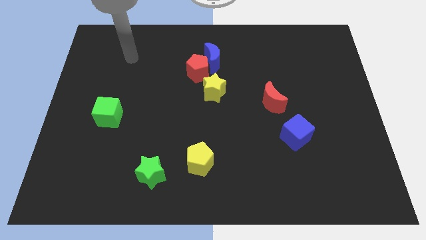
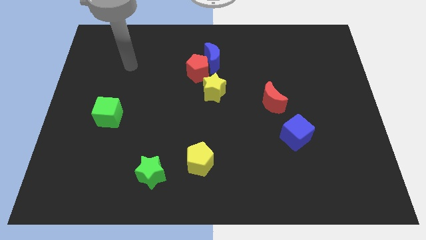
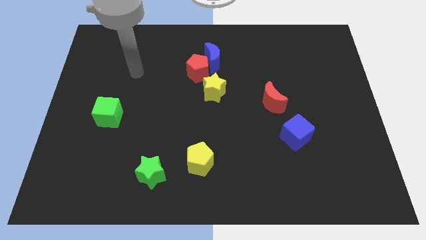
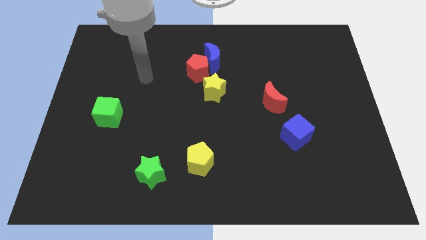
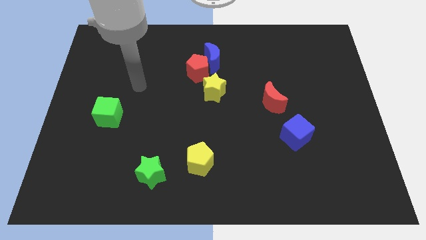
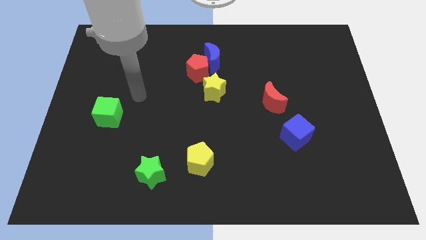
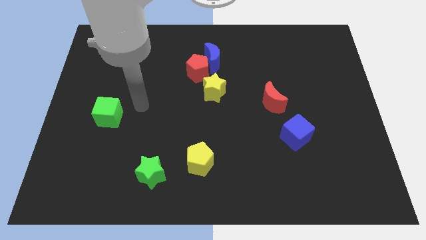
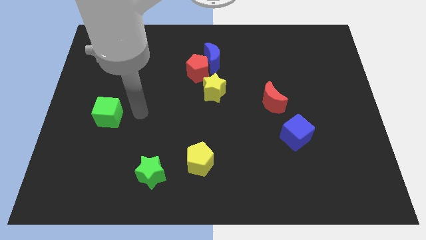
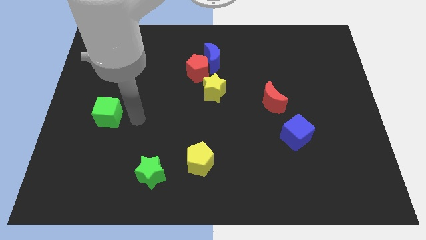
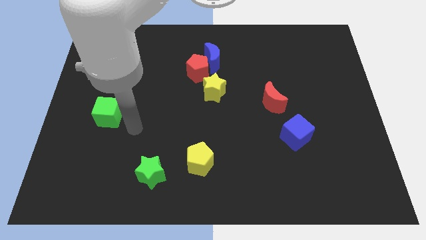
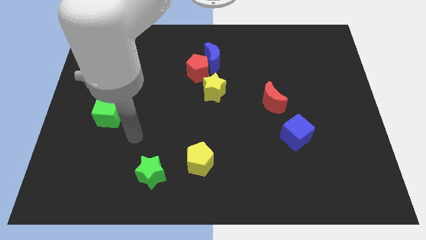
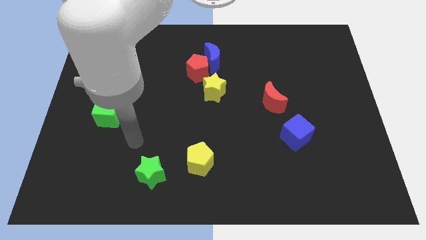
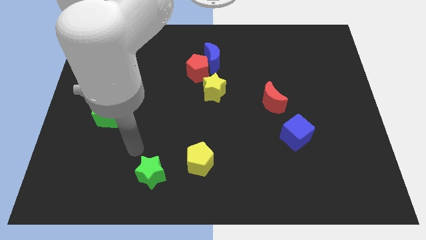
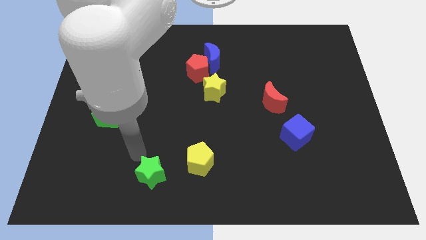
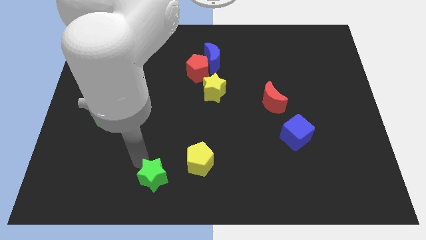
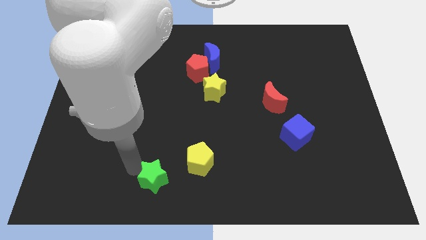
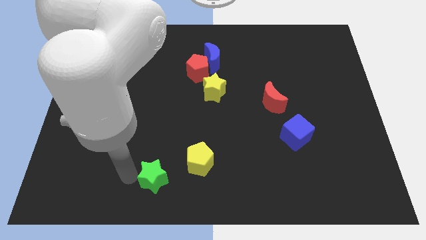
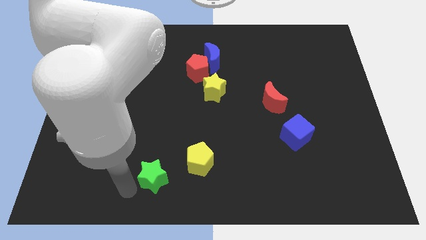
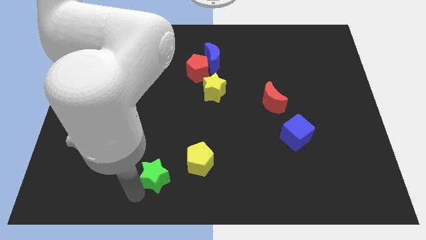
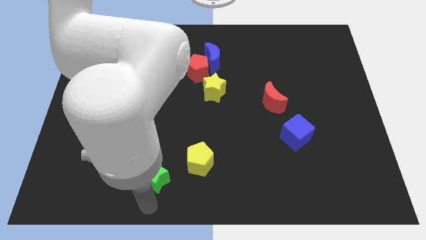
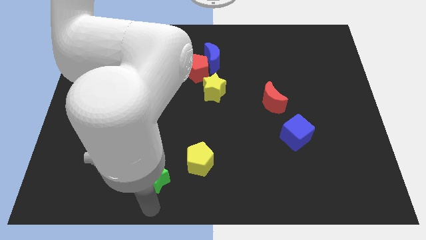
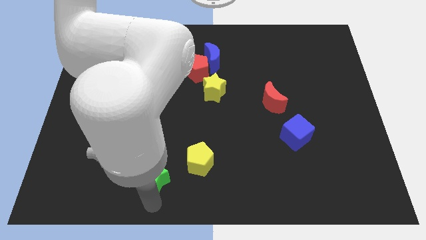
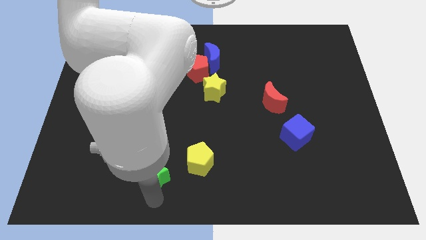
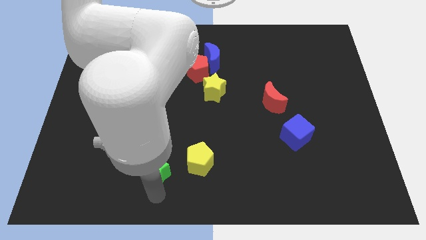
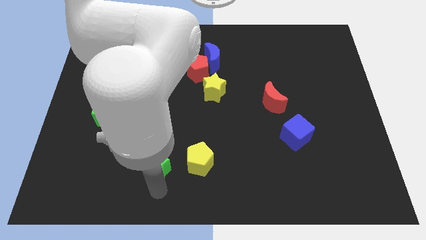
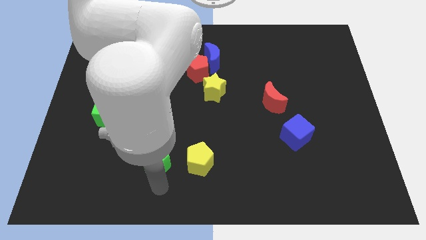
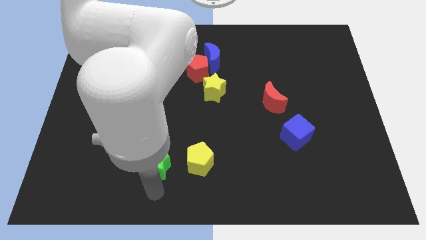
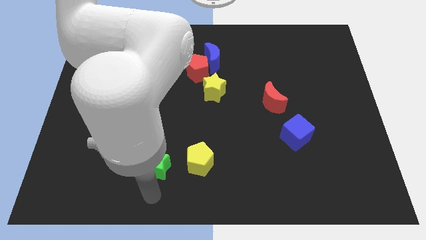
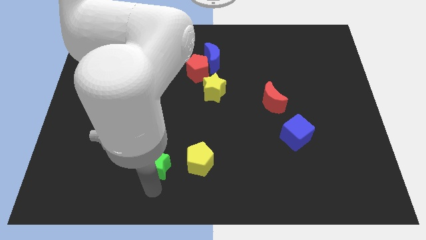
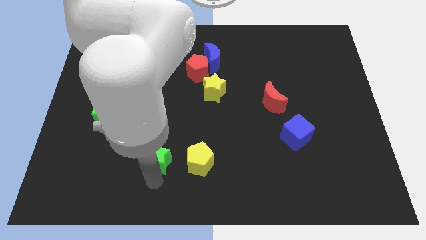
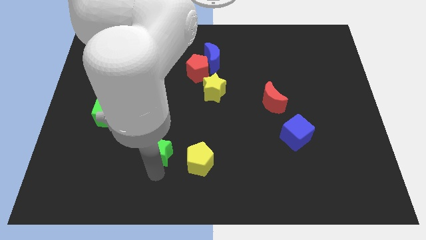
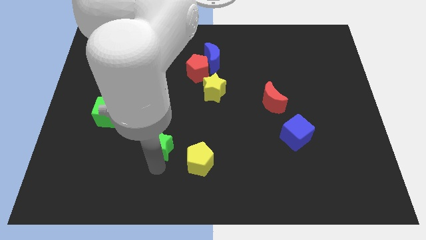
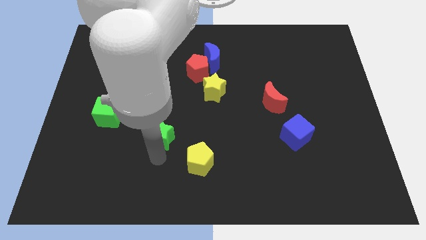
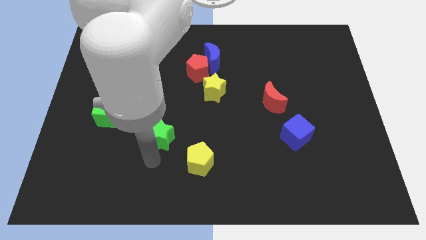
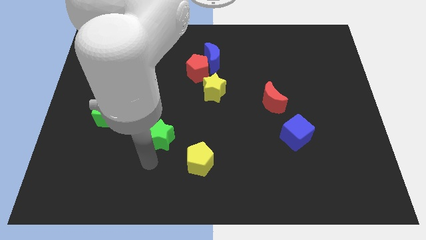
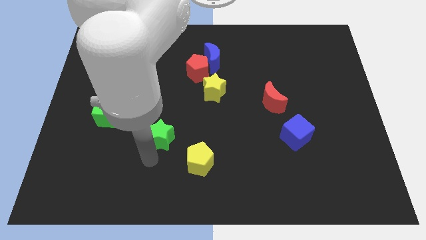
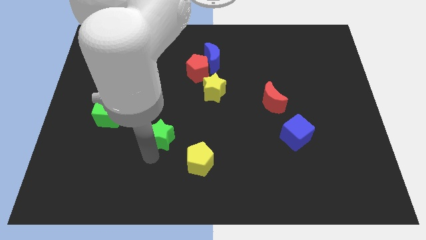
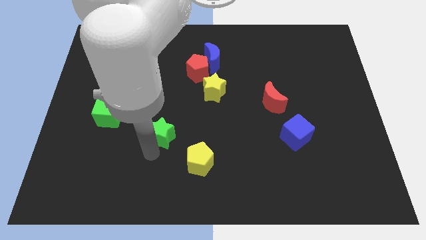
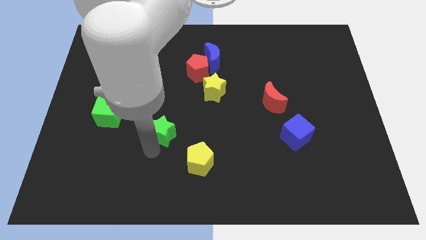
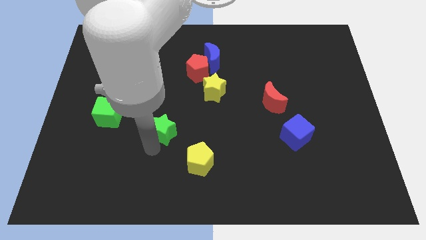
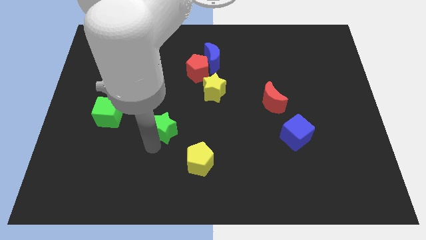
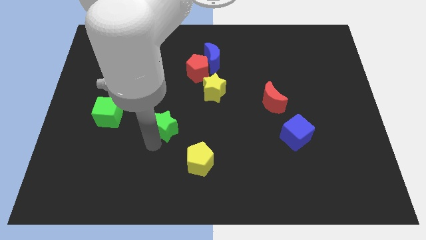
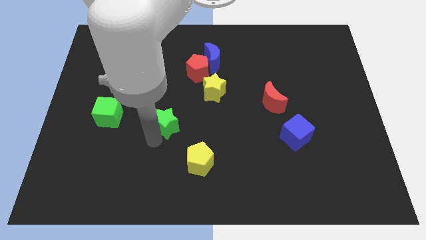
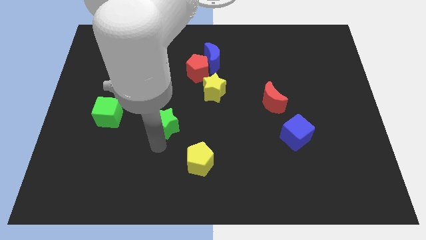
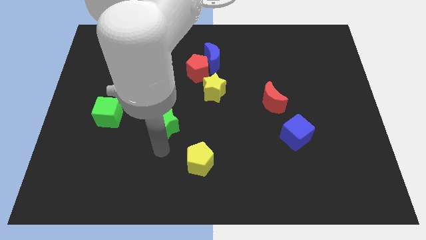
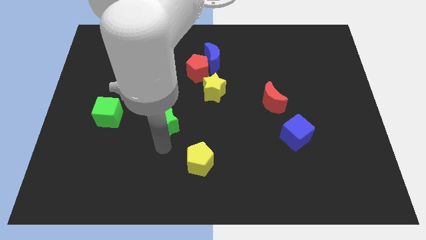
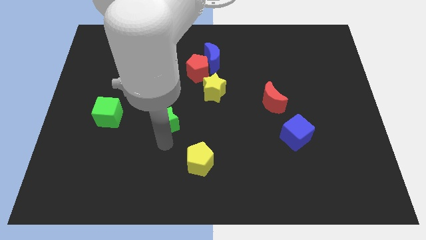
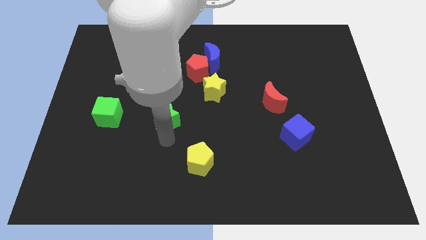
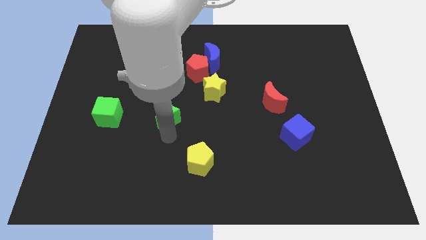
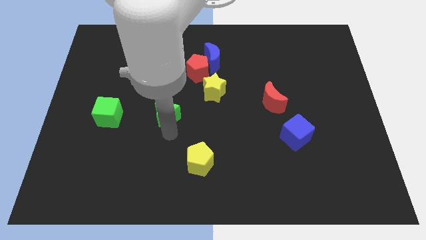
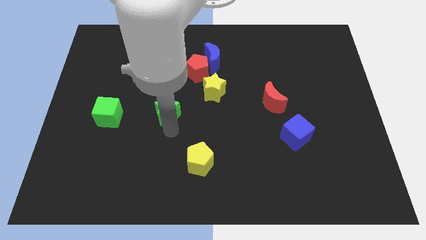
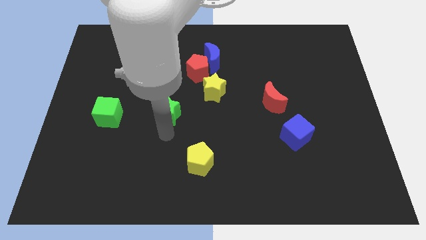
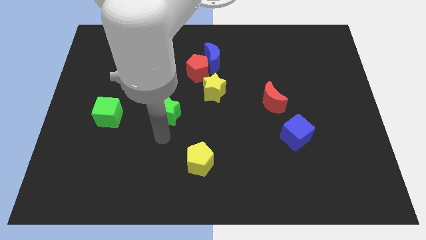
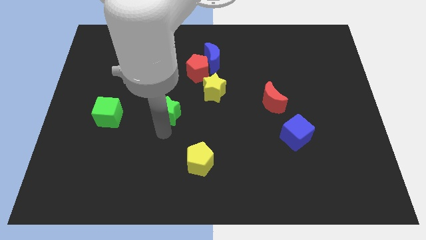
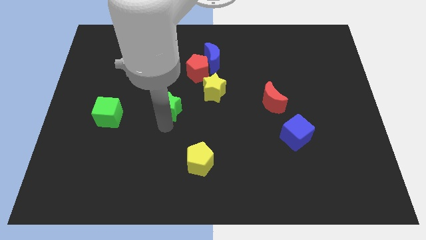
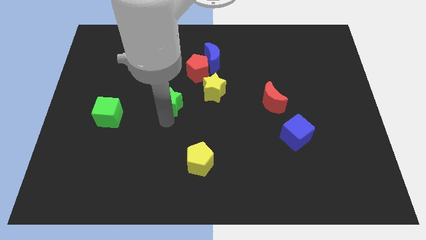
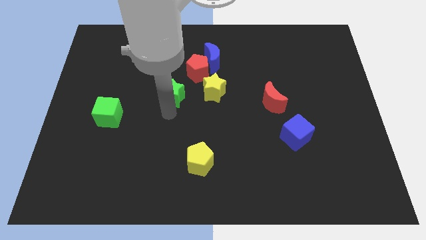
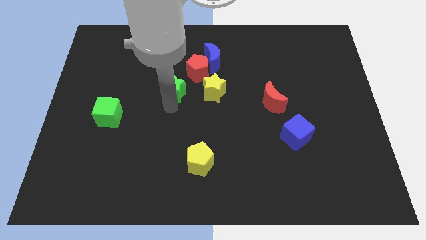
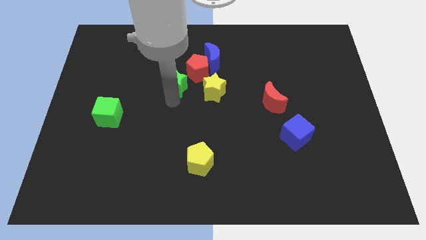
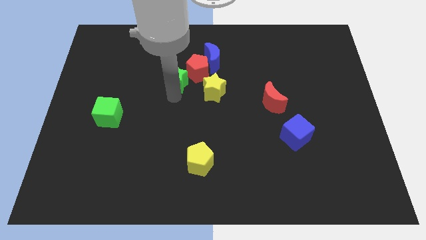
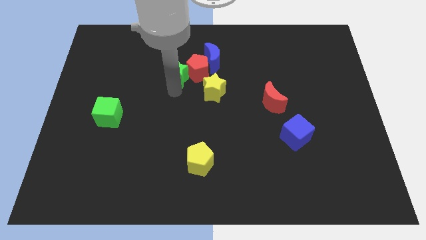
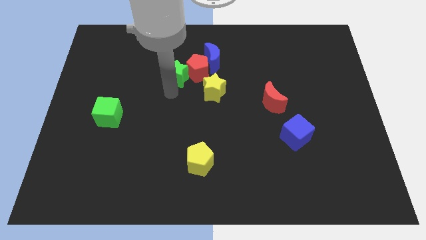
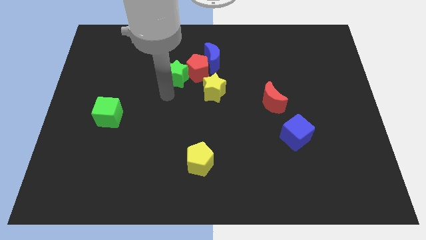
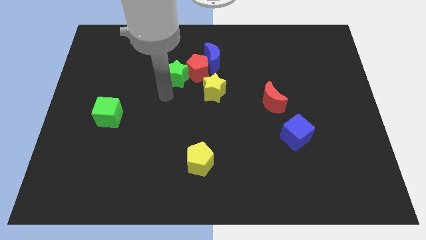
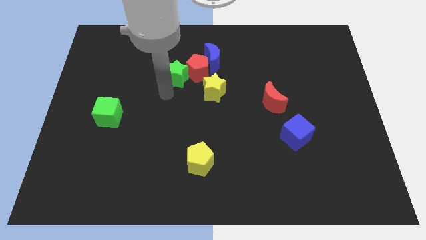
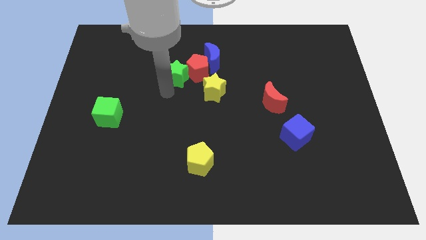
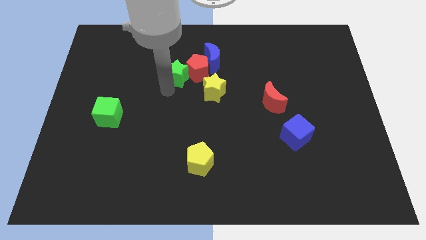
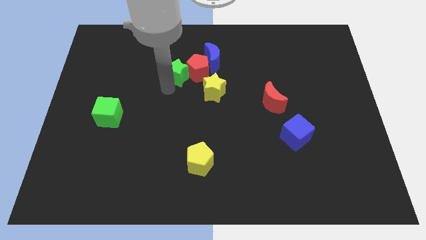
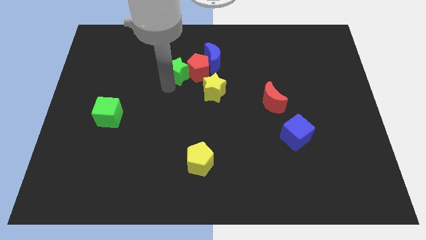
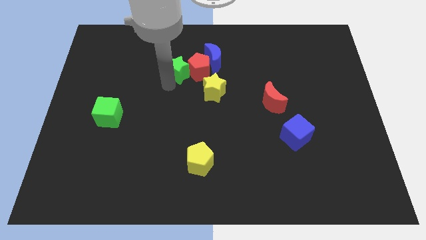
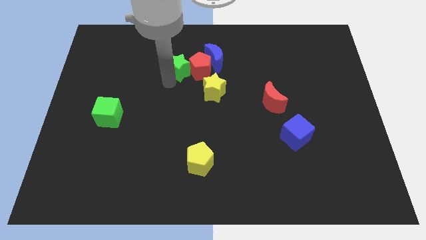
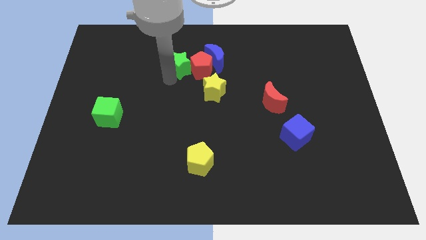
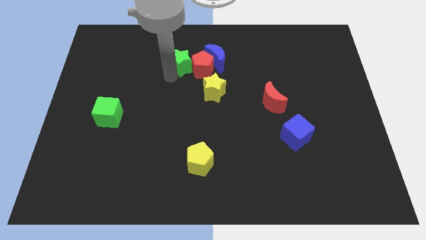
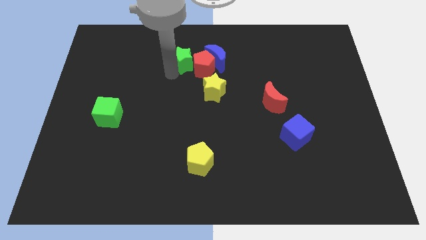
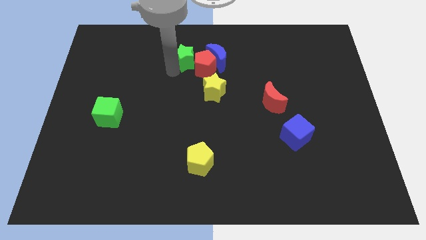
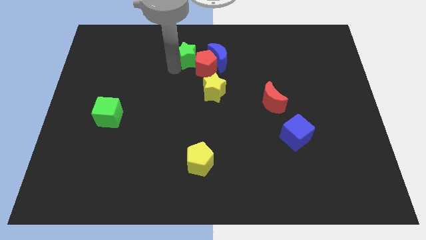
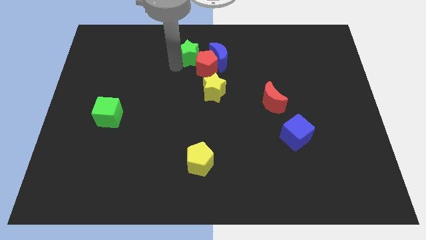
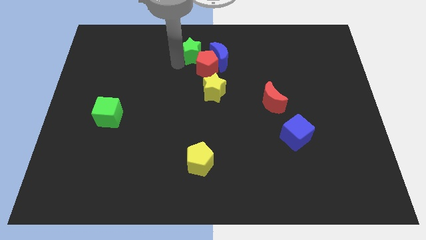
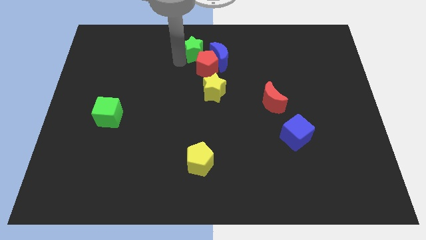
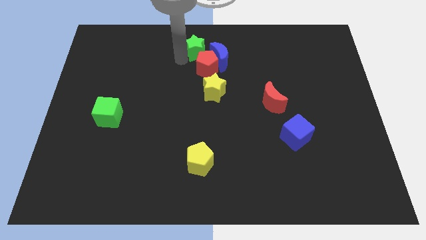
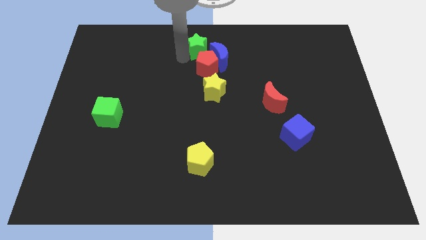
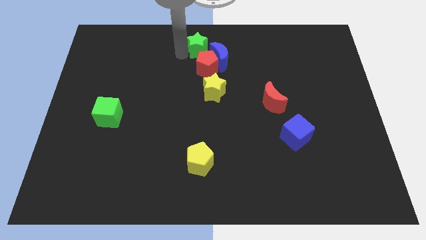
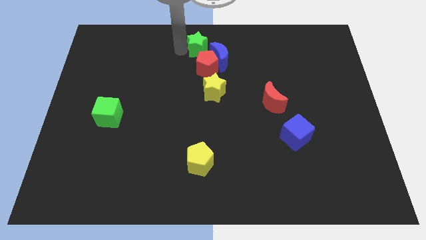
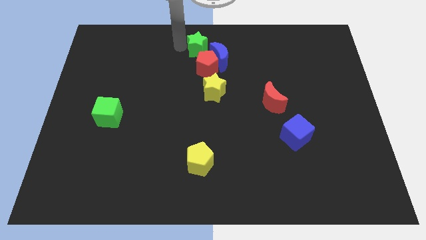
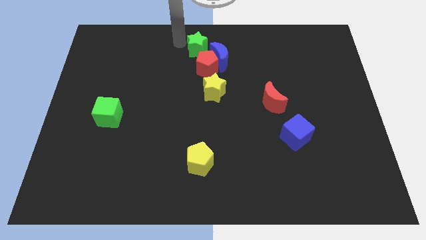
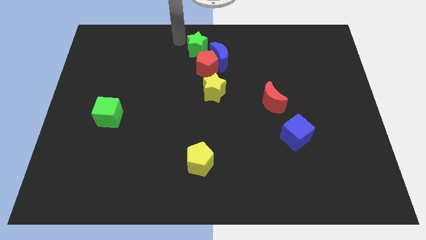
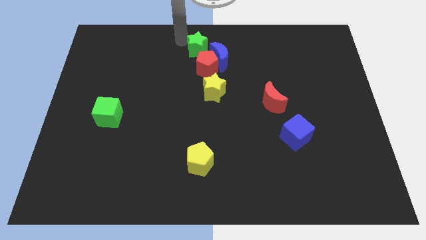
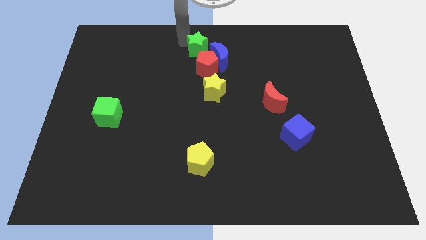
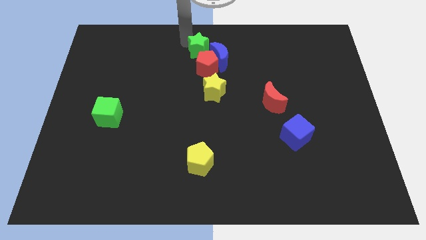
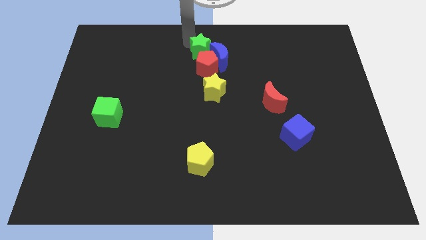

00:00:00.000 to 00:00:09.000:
put the green star close to the blue moon
